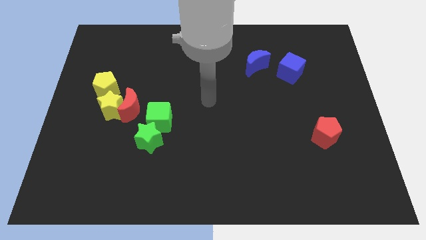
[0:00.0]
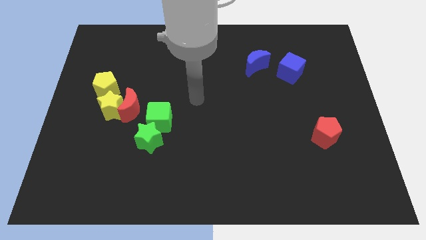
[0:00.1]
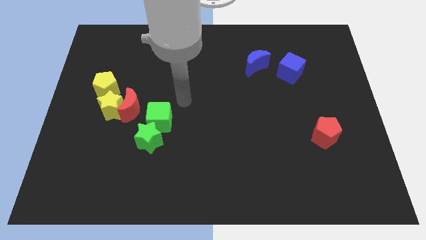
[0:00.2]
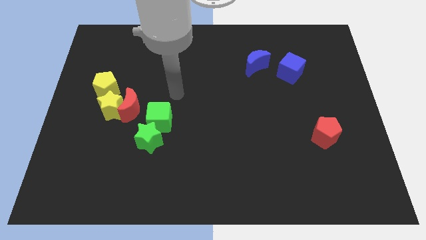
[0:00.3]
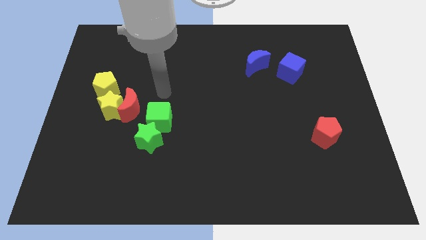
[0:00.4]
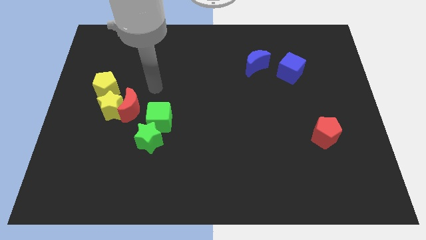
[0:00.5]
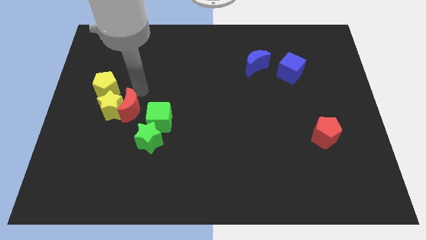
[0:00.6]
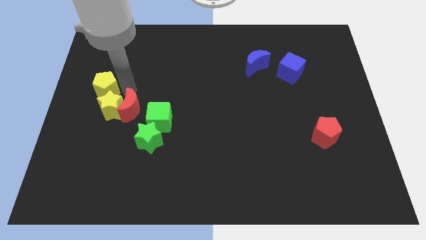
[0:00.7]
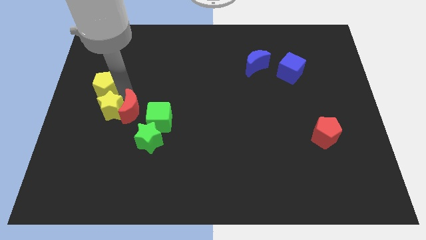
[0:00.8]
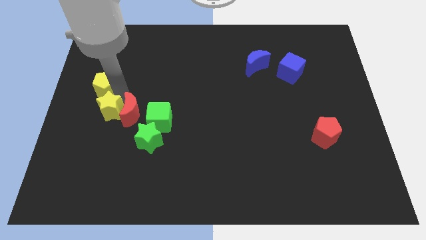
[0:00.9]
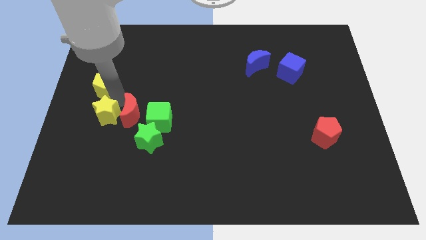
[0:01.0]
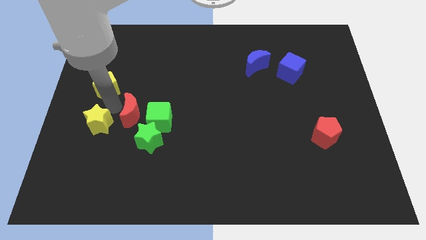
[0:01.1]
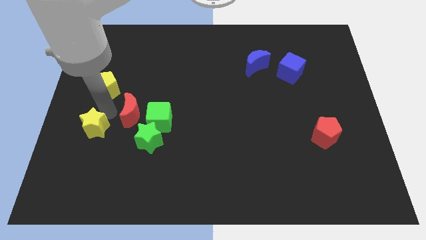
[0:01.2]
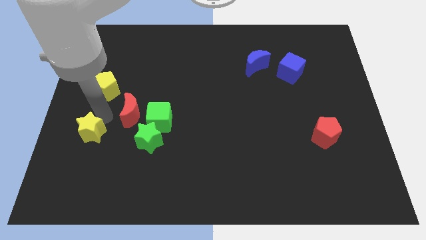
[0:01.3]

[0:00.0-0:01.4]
move the yellow star away from the red moon and yellow pentagon

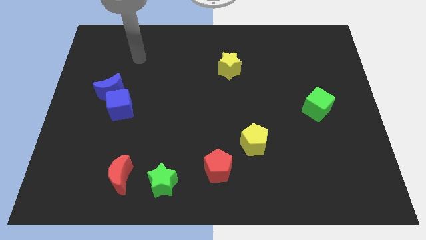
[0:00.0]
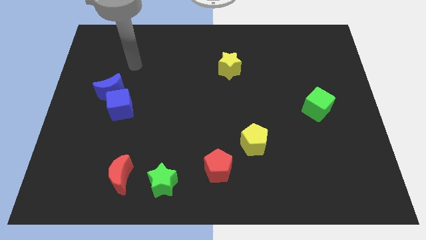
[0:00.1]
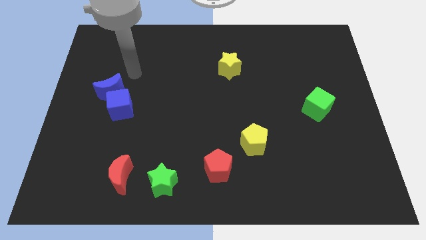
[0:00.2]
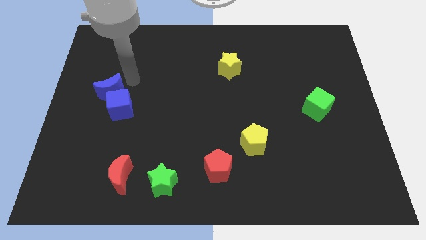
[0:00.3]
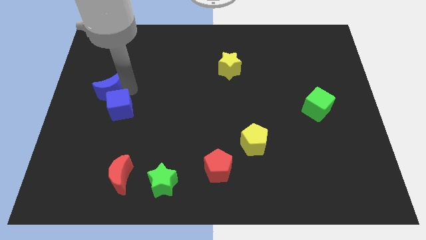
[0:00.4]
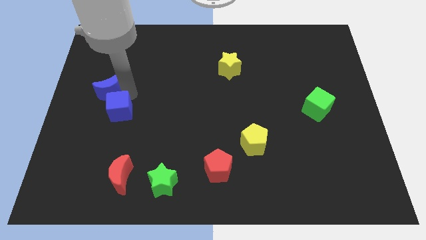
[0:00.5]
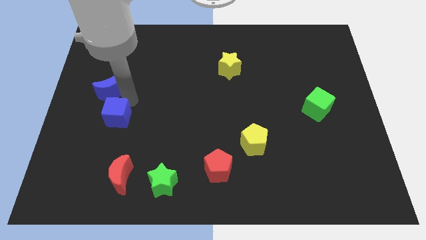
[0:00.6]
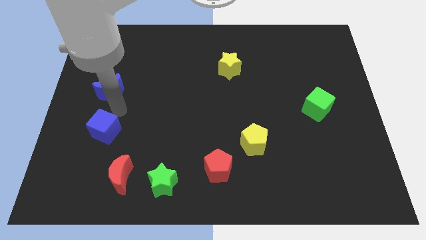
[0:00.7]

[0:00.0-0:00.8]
pull the blue moon apart from the blue cube

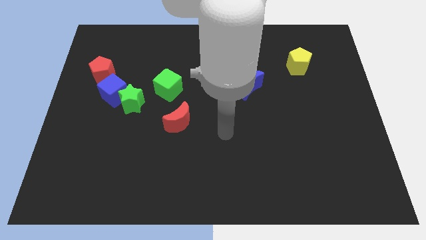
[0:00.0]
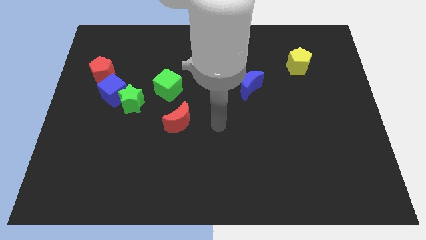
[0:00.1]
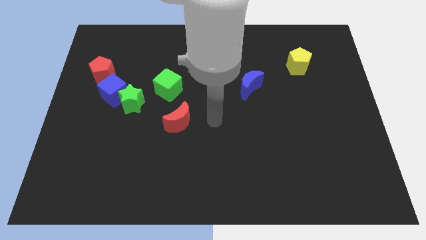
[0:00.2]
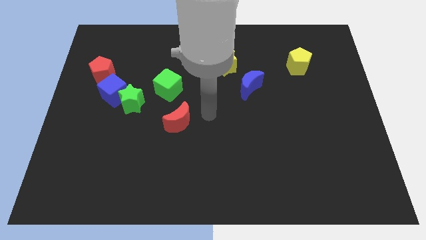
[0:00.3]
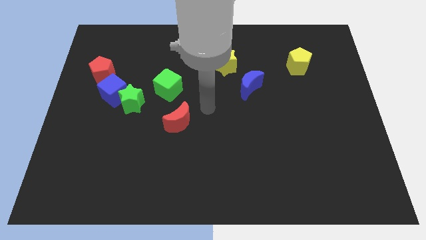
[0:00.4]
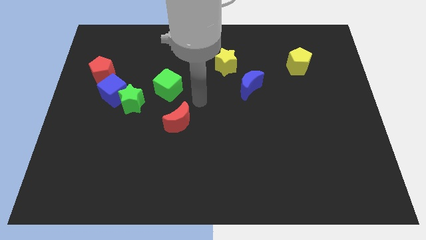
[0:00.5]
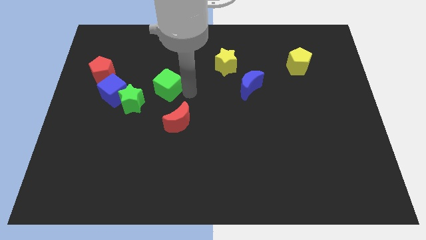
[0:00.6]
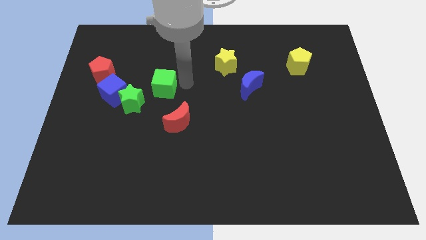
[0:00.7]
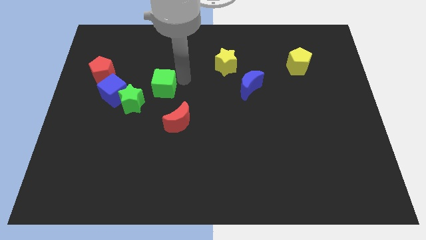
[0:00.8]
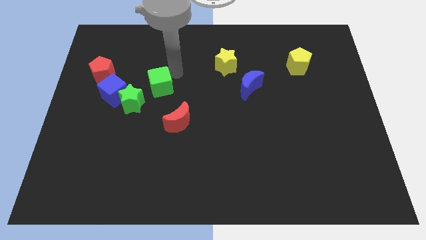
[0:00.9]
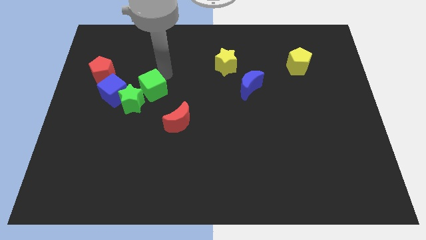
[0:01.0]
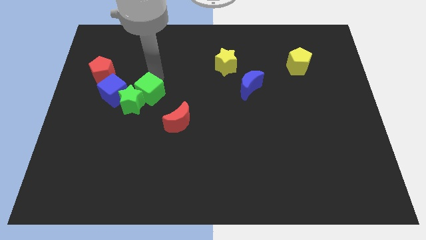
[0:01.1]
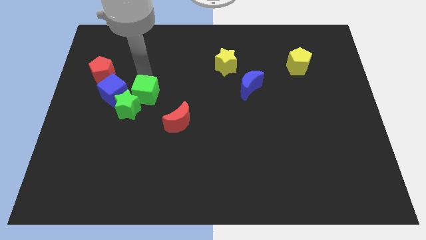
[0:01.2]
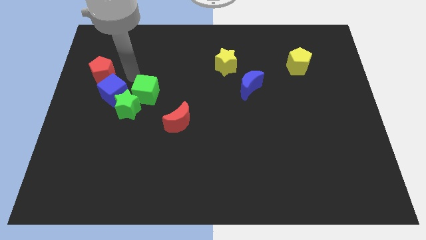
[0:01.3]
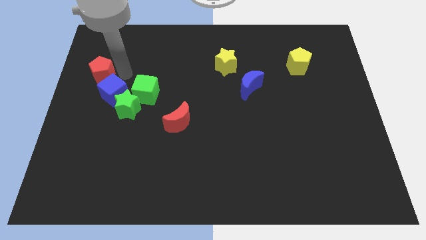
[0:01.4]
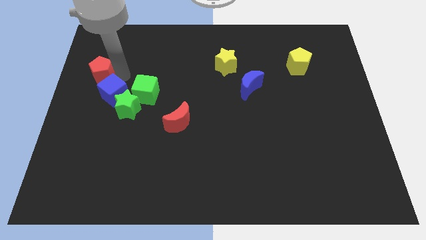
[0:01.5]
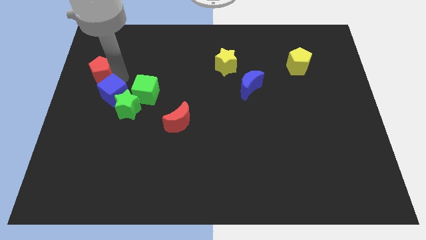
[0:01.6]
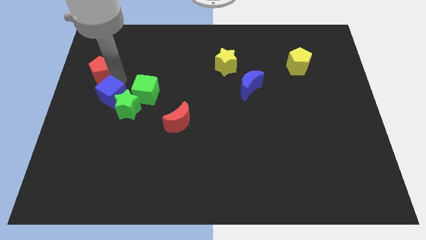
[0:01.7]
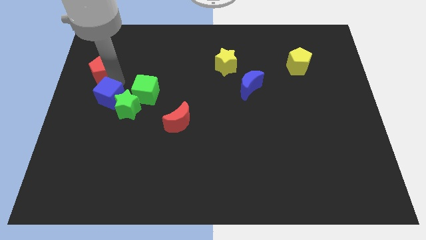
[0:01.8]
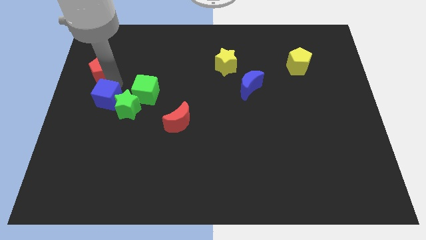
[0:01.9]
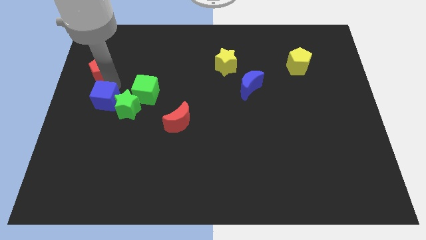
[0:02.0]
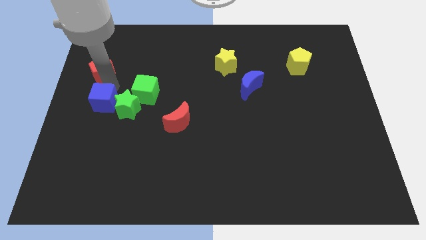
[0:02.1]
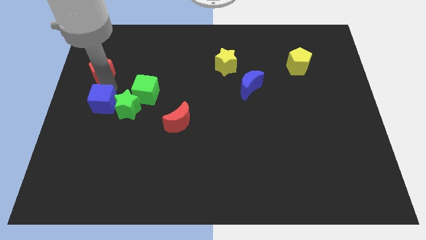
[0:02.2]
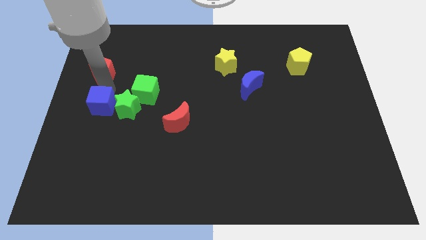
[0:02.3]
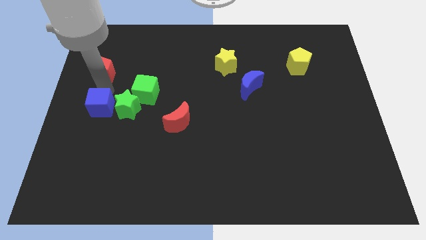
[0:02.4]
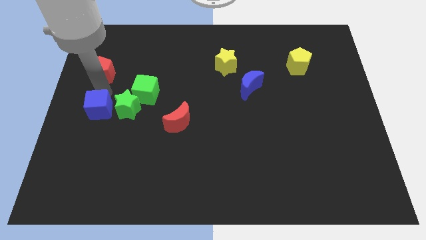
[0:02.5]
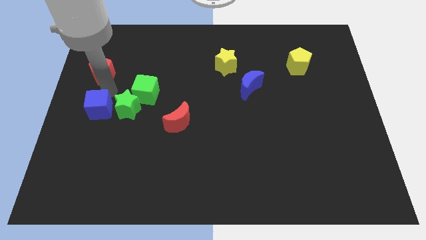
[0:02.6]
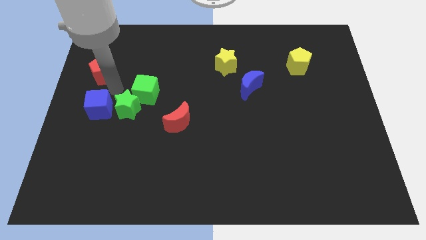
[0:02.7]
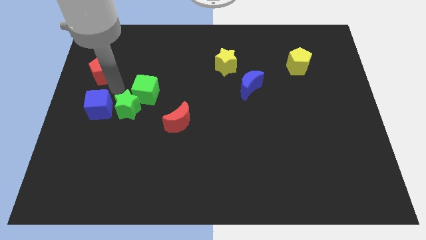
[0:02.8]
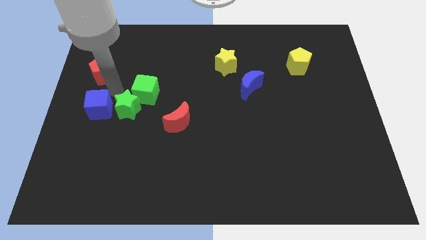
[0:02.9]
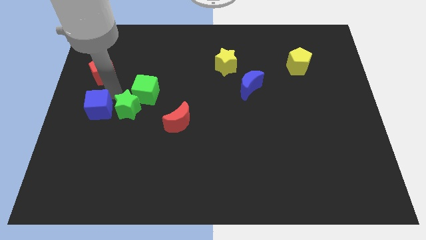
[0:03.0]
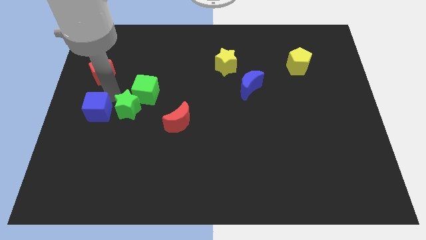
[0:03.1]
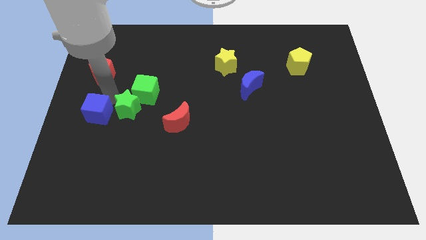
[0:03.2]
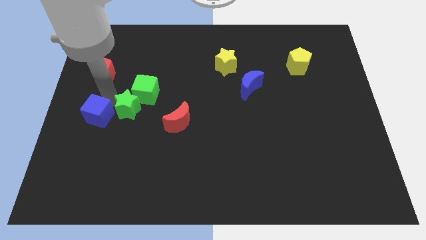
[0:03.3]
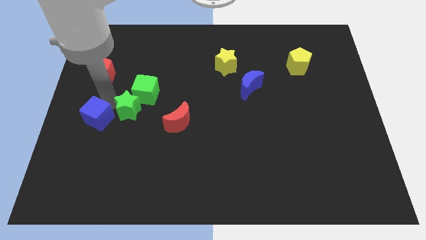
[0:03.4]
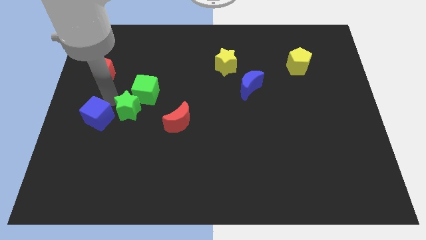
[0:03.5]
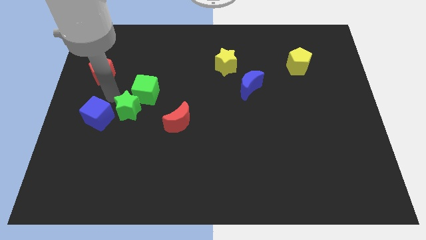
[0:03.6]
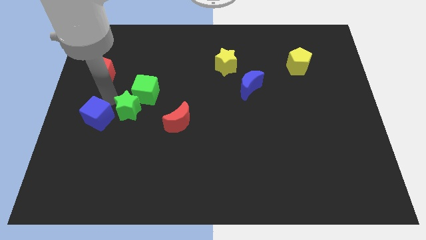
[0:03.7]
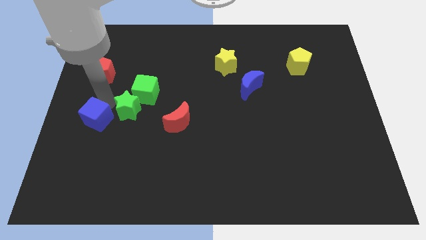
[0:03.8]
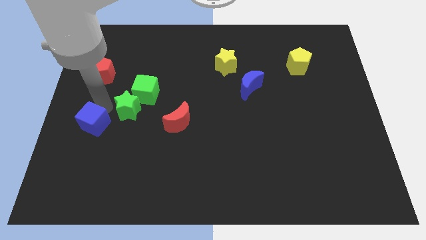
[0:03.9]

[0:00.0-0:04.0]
move the blue cube away from the green star and red pentagon

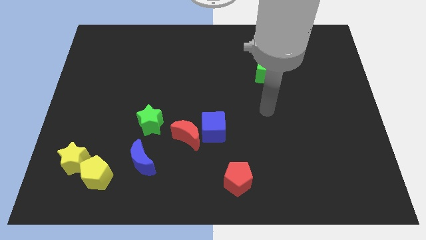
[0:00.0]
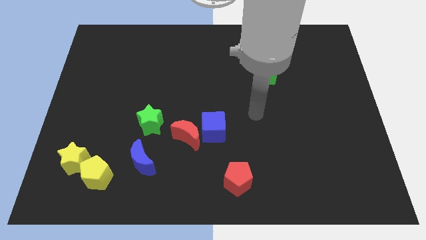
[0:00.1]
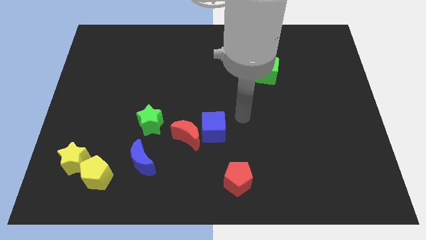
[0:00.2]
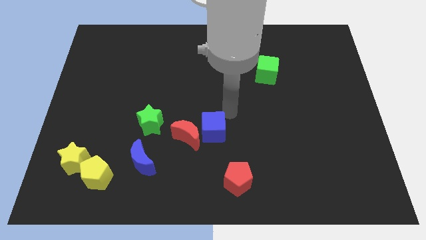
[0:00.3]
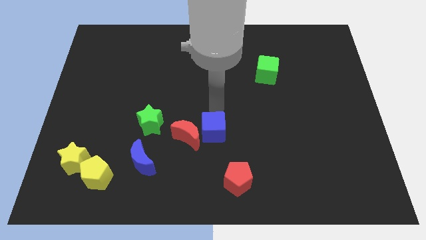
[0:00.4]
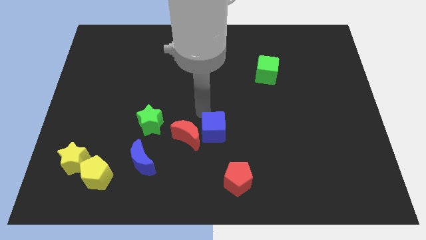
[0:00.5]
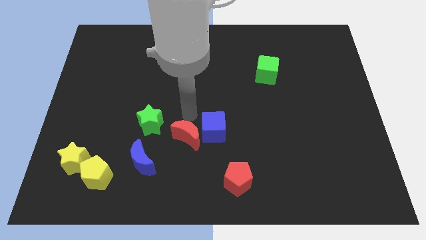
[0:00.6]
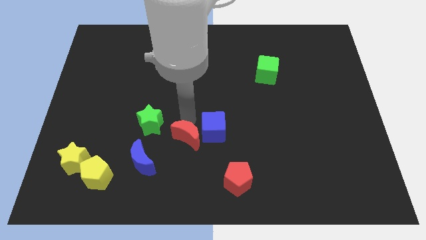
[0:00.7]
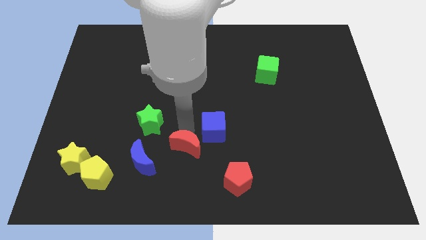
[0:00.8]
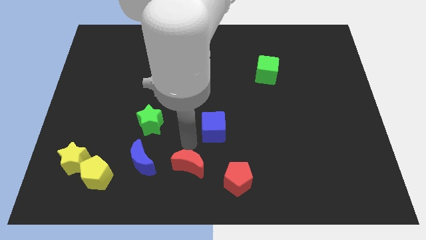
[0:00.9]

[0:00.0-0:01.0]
separate the blue cube from the red moon

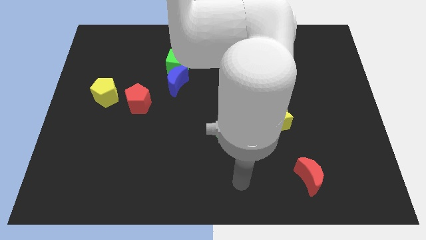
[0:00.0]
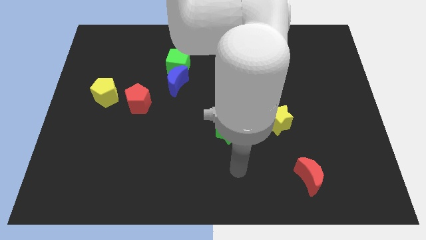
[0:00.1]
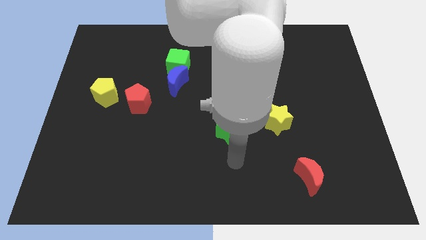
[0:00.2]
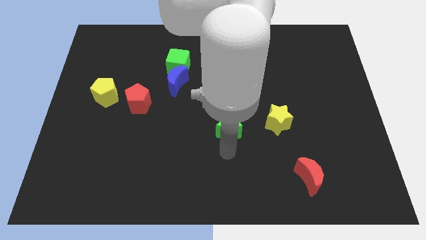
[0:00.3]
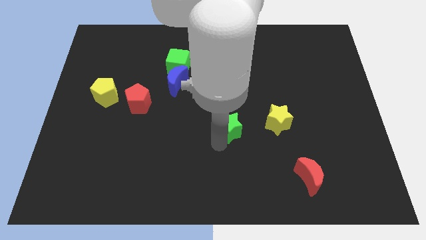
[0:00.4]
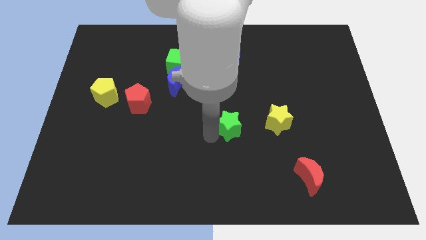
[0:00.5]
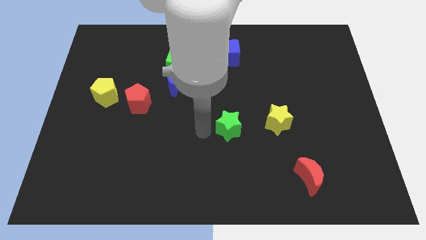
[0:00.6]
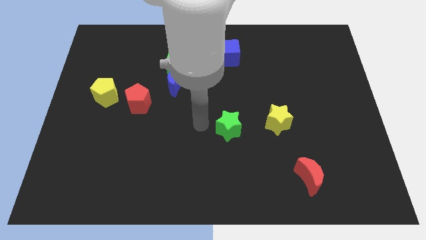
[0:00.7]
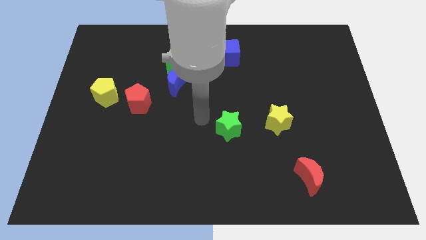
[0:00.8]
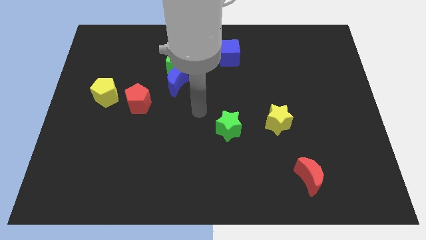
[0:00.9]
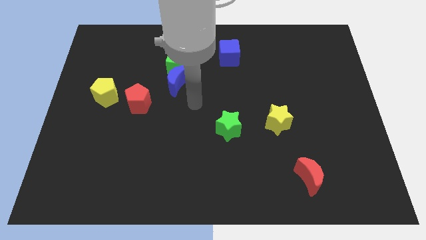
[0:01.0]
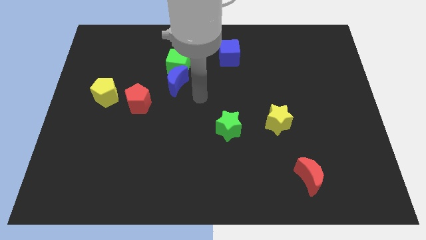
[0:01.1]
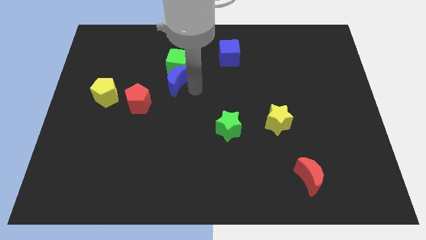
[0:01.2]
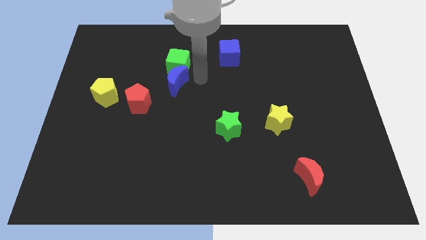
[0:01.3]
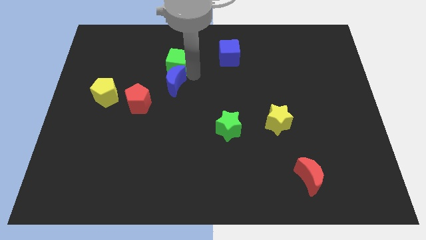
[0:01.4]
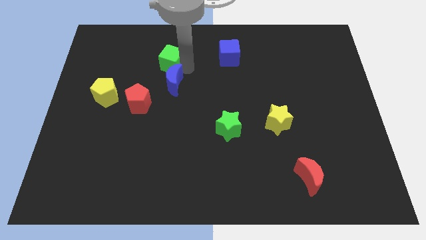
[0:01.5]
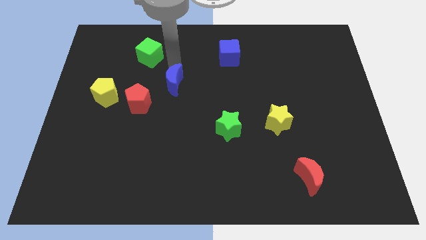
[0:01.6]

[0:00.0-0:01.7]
move the blue moon away from the green cube

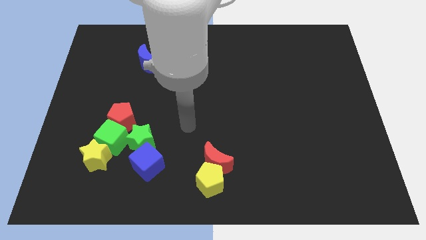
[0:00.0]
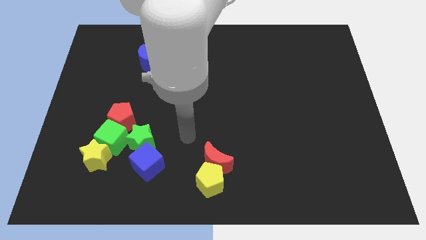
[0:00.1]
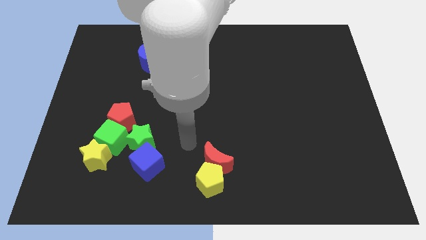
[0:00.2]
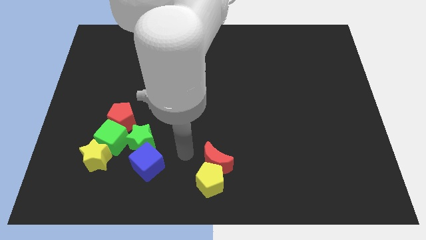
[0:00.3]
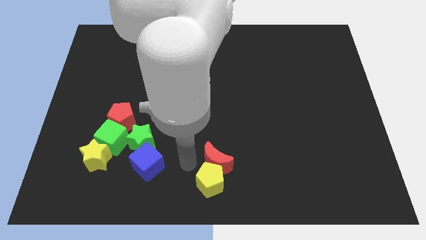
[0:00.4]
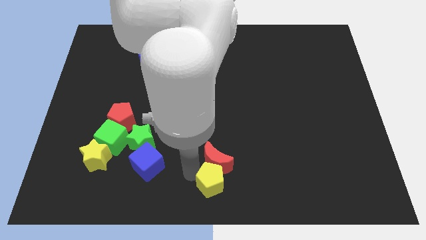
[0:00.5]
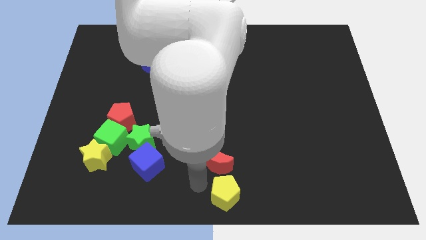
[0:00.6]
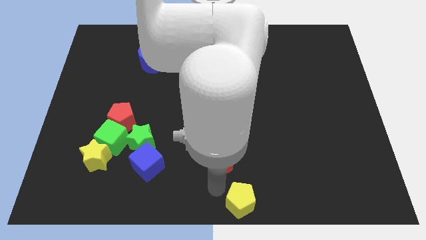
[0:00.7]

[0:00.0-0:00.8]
move the red moon away from the yellow pentagon
